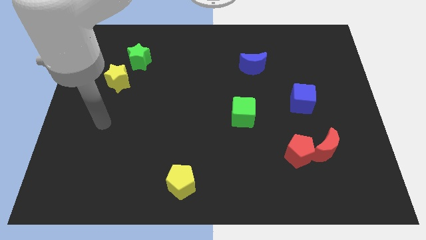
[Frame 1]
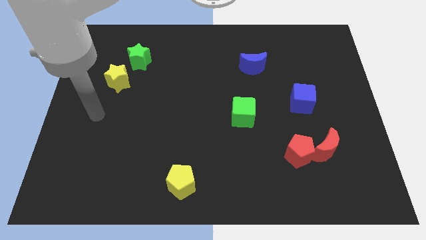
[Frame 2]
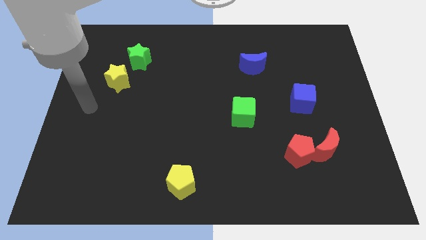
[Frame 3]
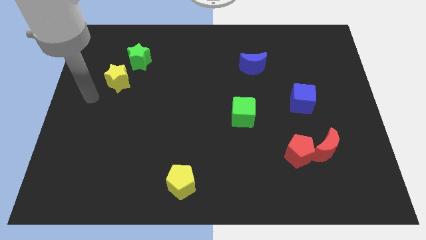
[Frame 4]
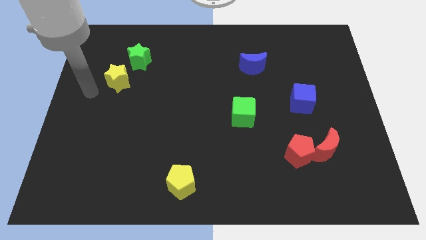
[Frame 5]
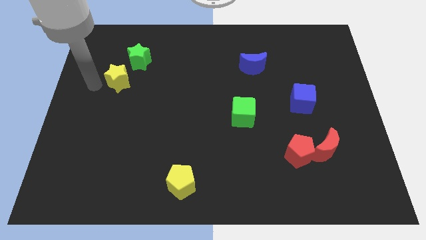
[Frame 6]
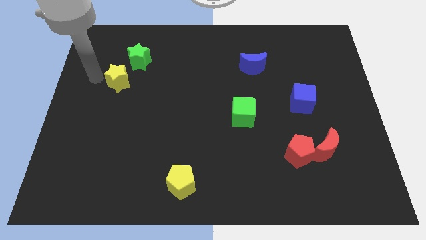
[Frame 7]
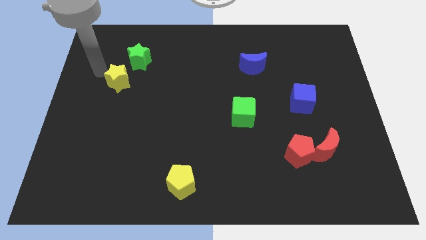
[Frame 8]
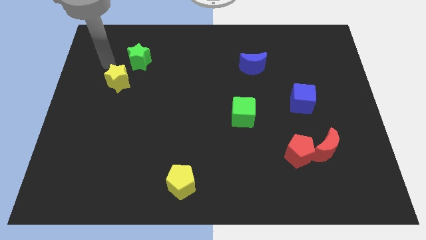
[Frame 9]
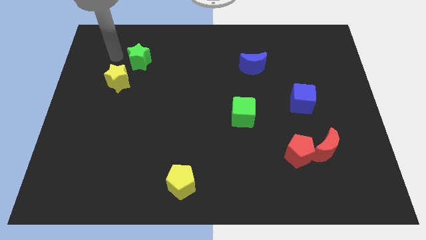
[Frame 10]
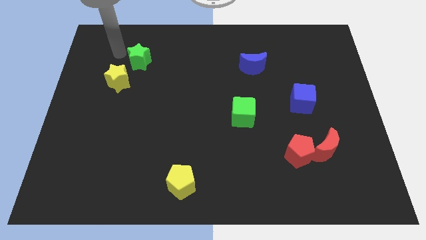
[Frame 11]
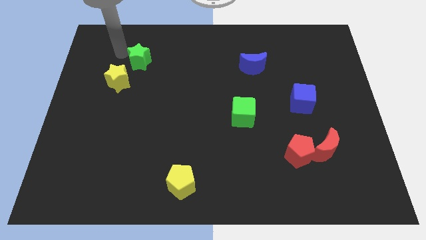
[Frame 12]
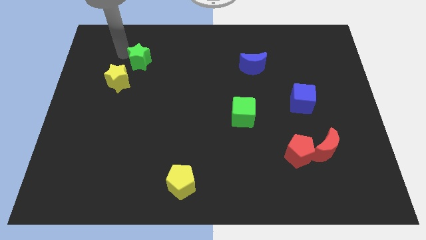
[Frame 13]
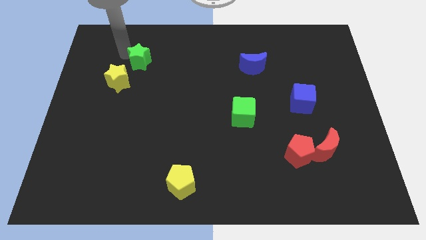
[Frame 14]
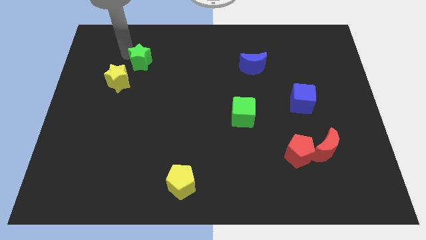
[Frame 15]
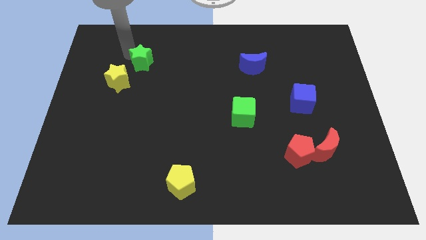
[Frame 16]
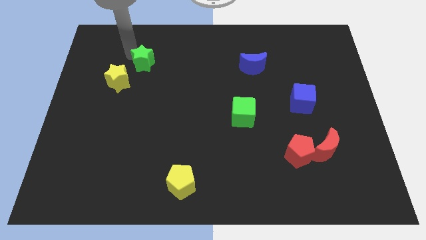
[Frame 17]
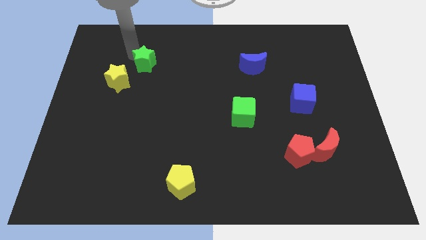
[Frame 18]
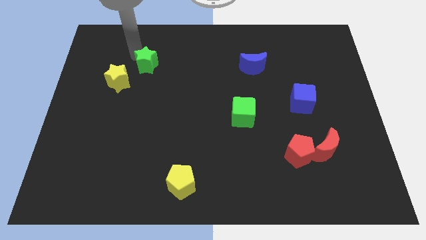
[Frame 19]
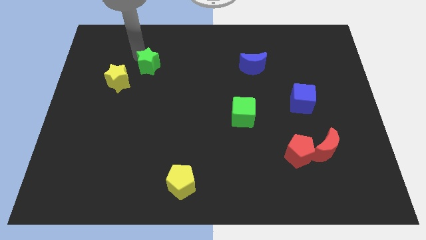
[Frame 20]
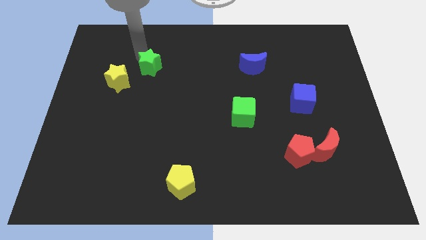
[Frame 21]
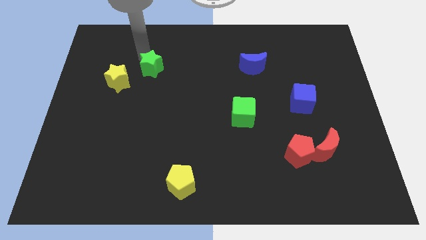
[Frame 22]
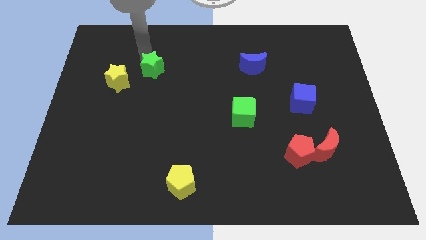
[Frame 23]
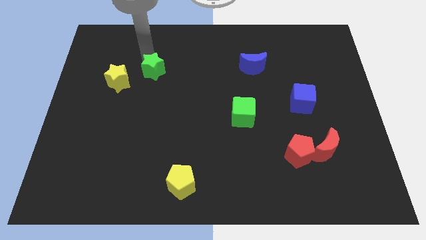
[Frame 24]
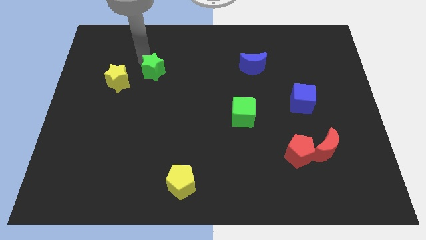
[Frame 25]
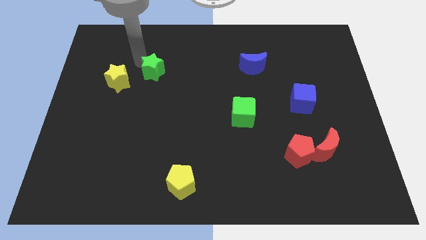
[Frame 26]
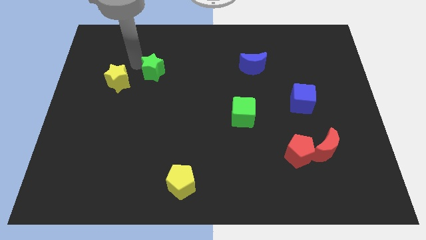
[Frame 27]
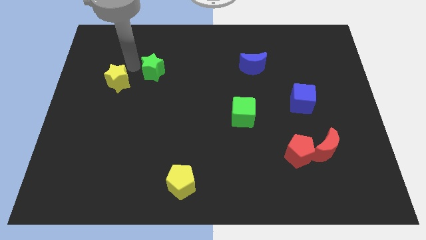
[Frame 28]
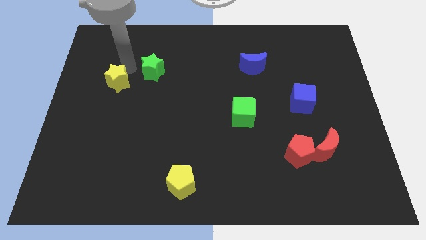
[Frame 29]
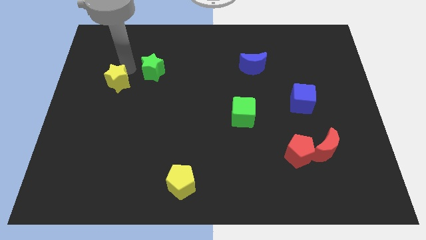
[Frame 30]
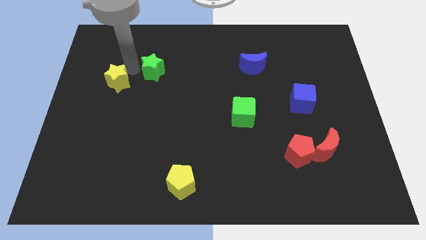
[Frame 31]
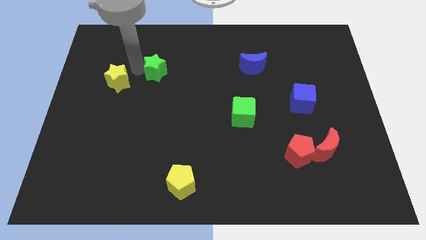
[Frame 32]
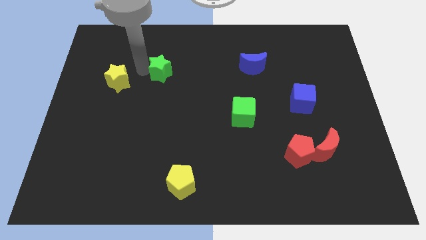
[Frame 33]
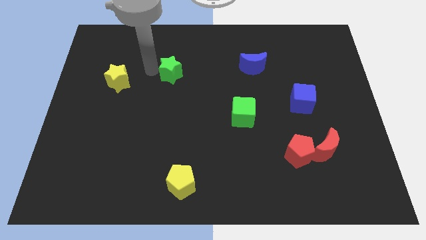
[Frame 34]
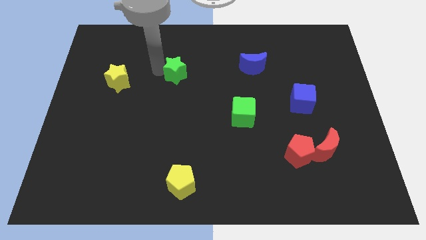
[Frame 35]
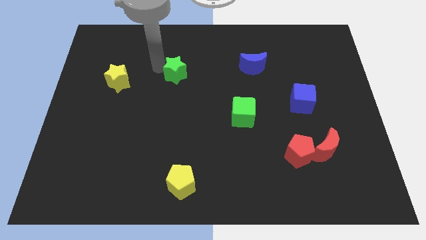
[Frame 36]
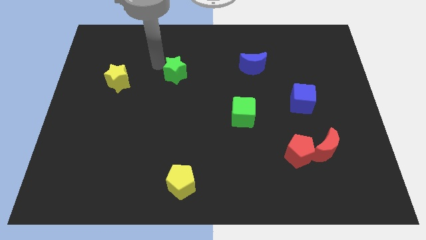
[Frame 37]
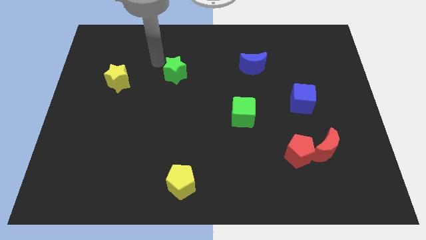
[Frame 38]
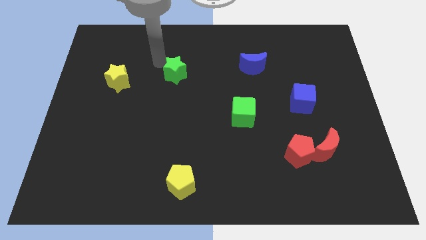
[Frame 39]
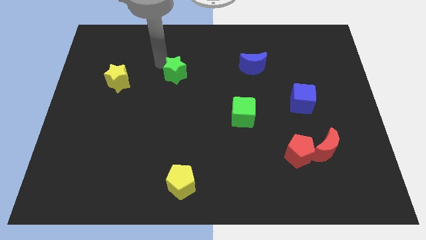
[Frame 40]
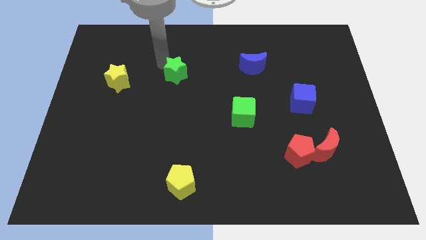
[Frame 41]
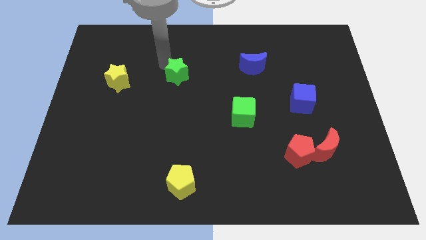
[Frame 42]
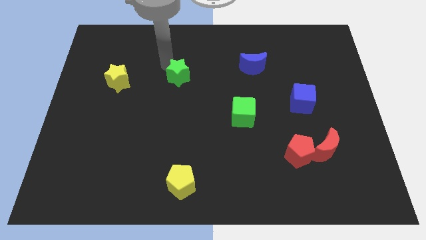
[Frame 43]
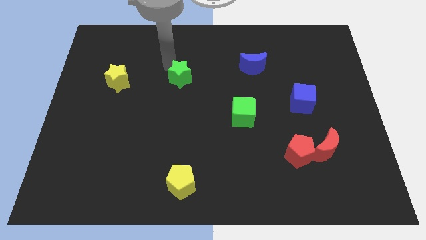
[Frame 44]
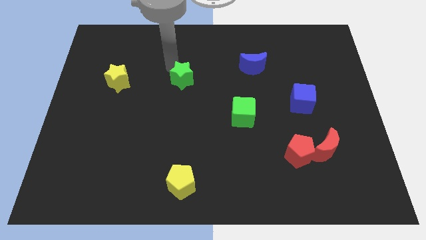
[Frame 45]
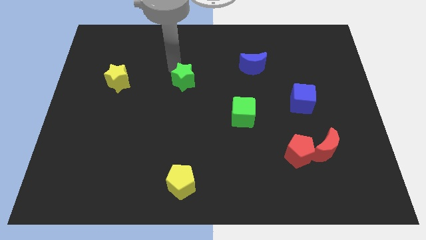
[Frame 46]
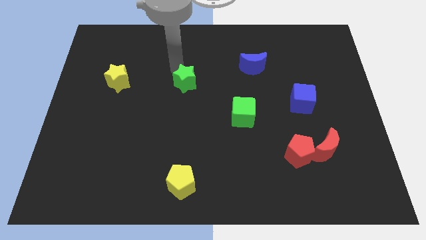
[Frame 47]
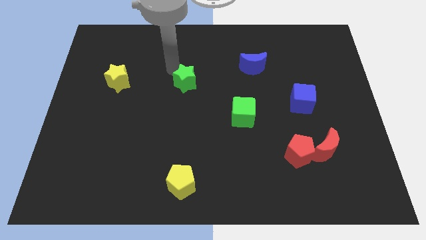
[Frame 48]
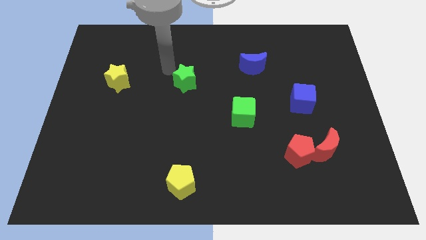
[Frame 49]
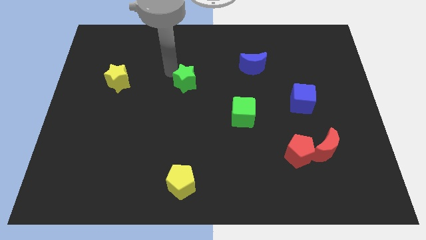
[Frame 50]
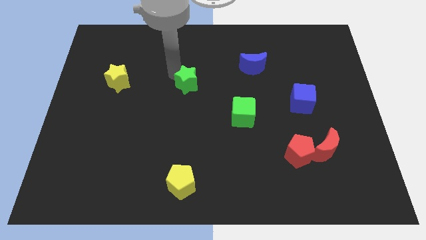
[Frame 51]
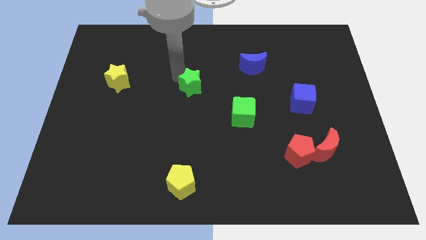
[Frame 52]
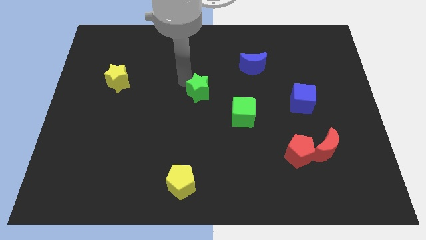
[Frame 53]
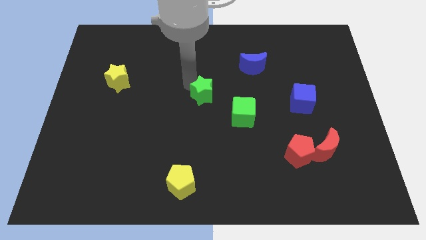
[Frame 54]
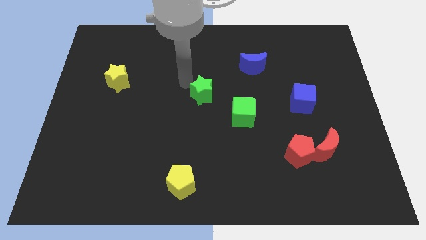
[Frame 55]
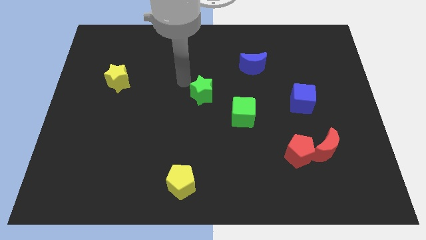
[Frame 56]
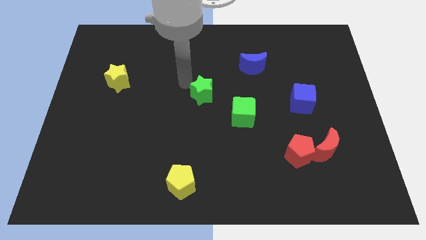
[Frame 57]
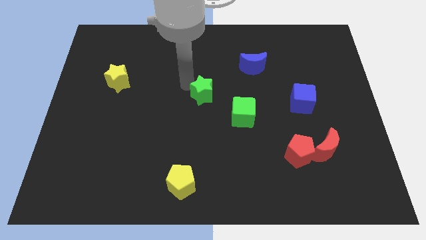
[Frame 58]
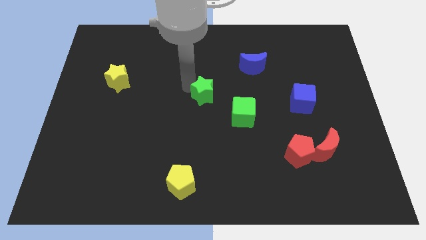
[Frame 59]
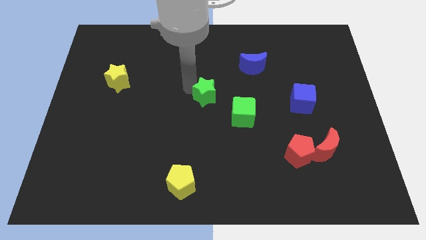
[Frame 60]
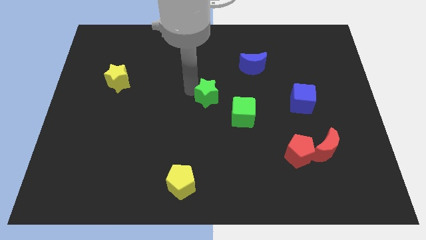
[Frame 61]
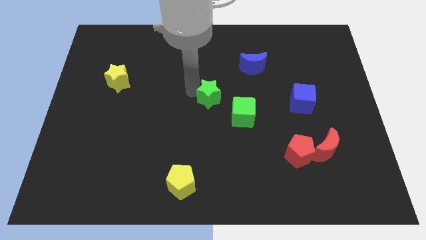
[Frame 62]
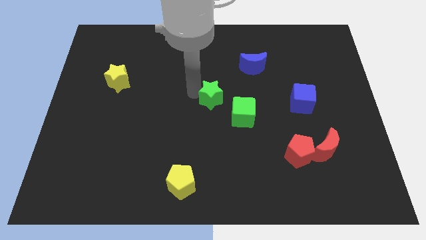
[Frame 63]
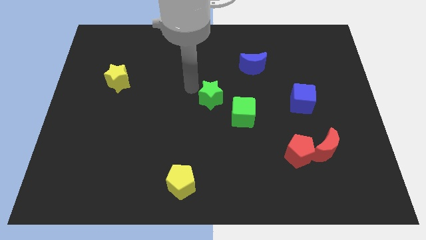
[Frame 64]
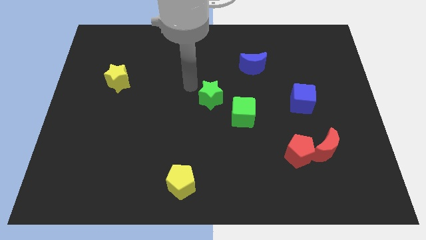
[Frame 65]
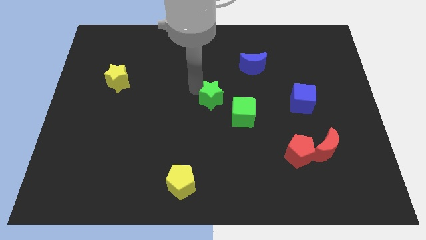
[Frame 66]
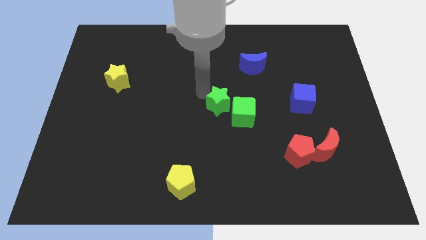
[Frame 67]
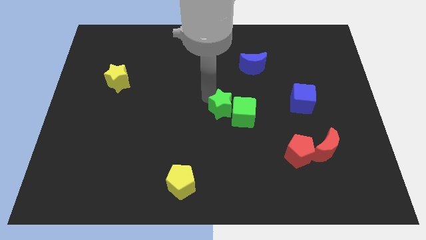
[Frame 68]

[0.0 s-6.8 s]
push the green star towards the green cube

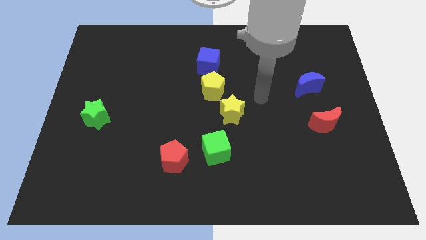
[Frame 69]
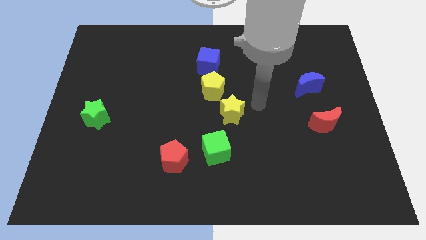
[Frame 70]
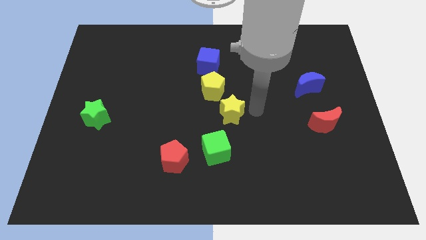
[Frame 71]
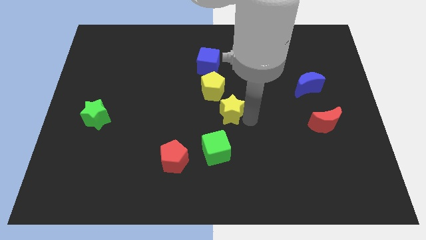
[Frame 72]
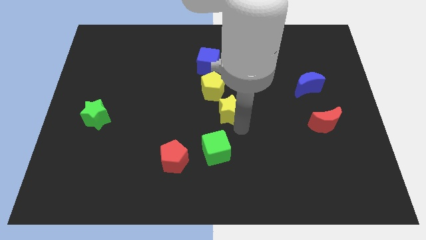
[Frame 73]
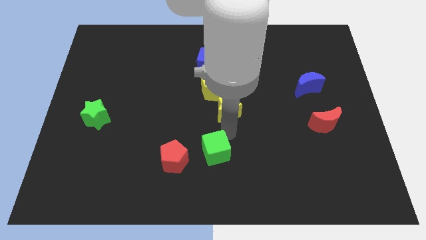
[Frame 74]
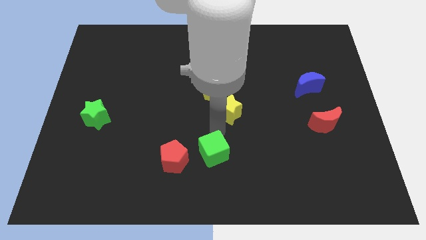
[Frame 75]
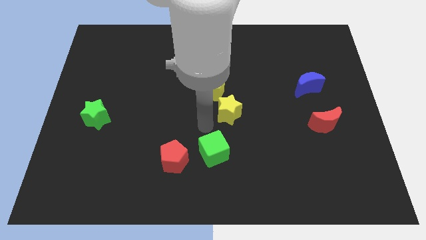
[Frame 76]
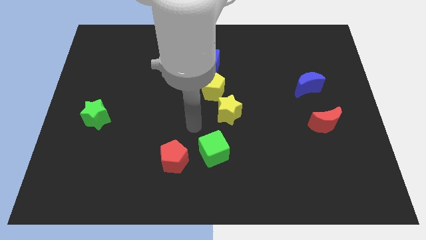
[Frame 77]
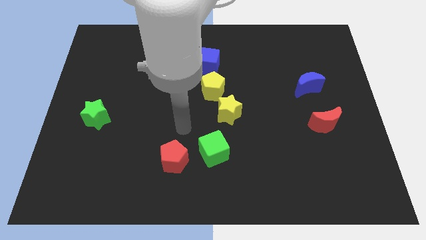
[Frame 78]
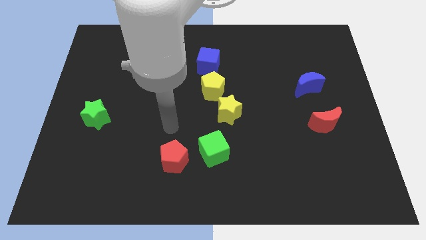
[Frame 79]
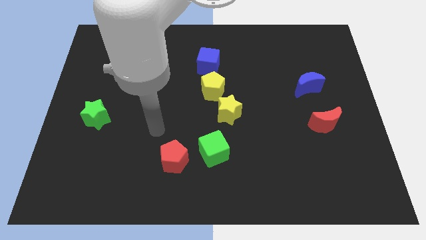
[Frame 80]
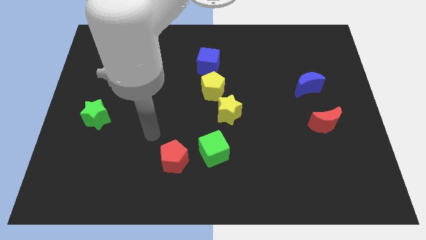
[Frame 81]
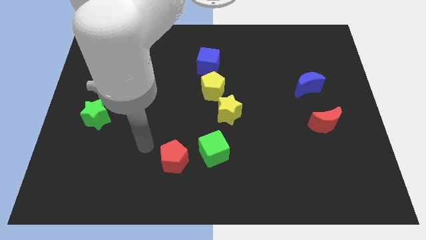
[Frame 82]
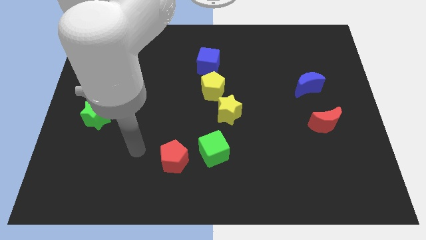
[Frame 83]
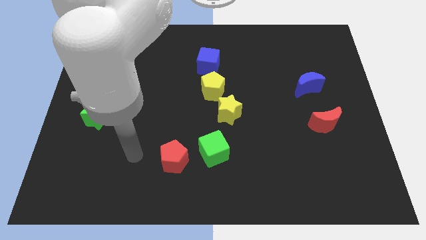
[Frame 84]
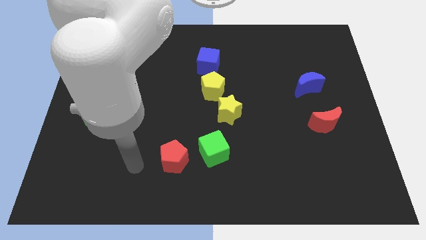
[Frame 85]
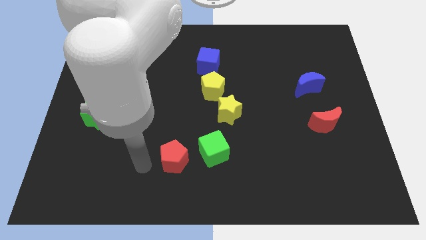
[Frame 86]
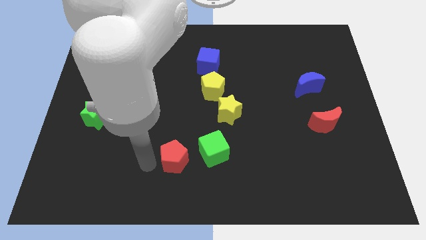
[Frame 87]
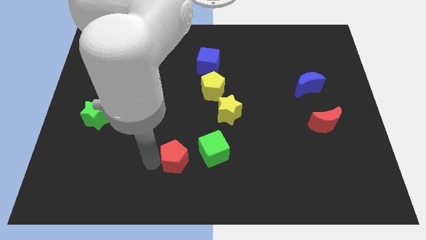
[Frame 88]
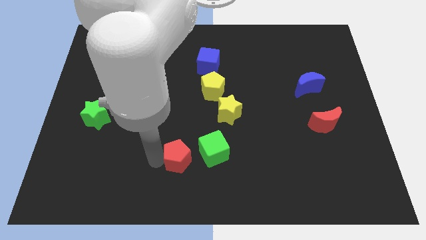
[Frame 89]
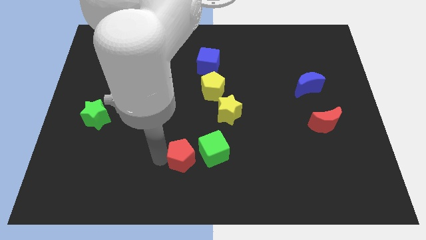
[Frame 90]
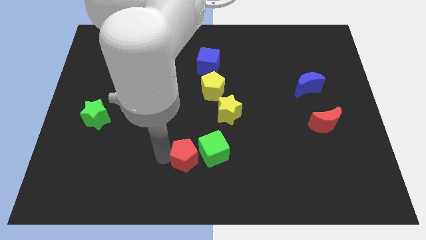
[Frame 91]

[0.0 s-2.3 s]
move the red pentagon next to the green cube
